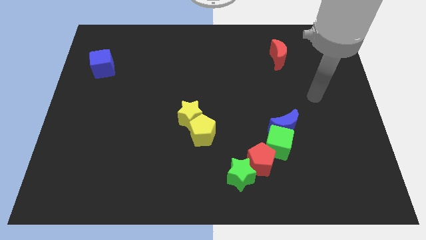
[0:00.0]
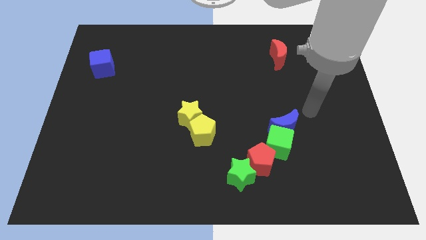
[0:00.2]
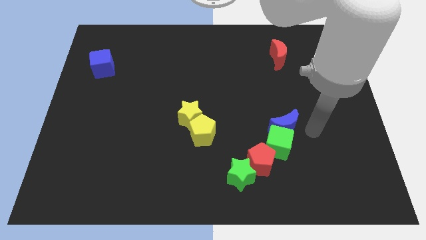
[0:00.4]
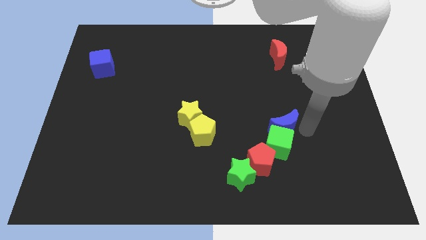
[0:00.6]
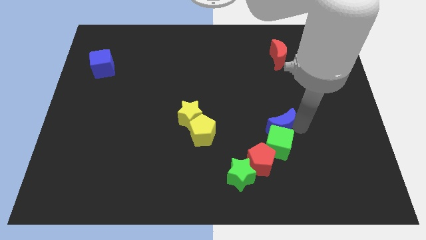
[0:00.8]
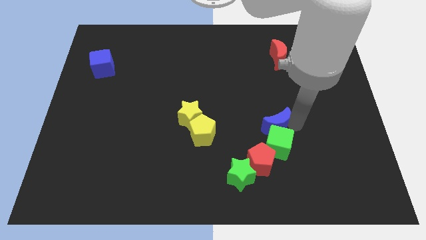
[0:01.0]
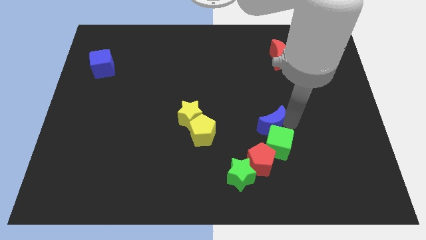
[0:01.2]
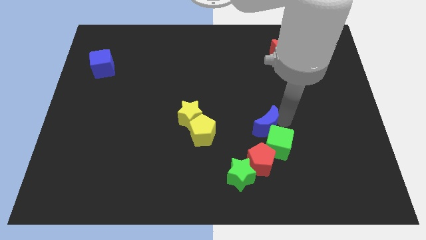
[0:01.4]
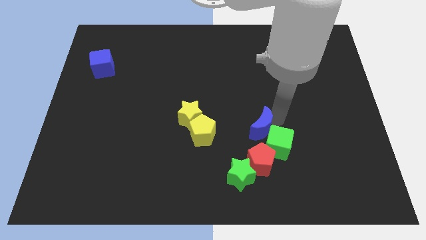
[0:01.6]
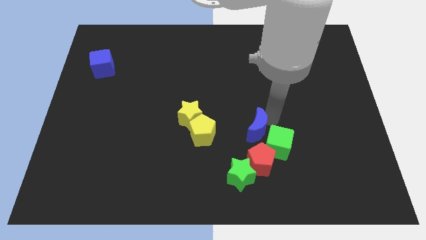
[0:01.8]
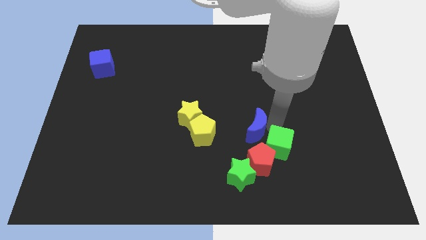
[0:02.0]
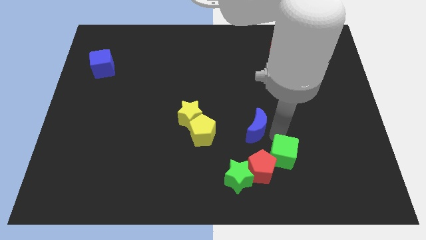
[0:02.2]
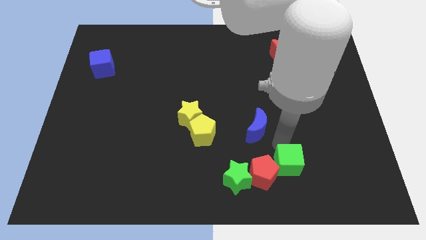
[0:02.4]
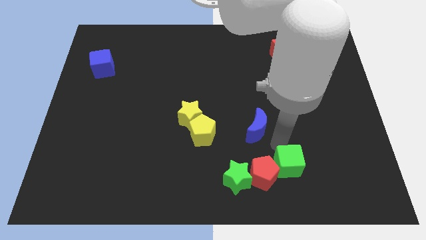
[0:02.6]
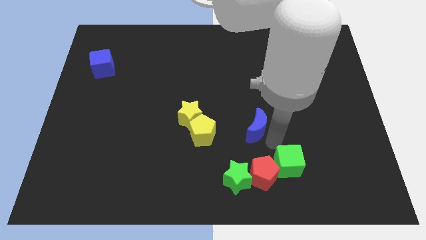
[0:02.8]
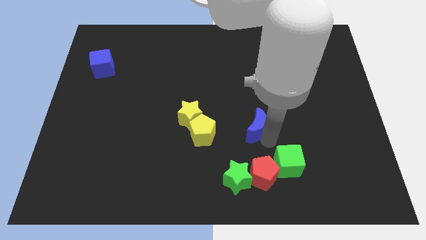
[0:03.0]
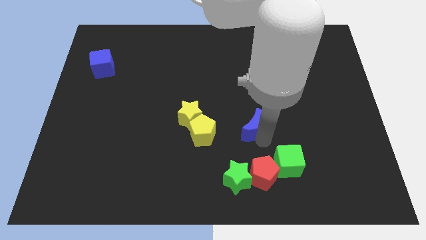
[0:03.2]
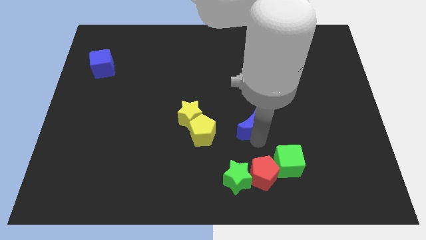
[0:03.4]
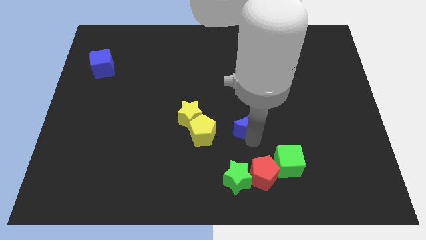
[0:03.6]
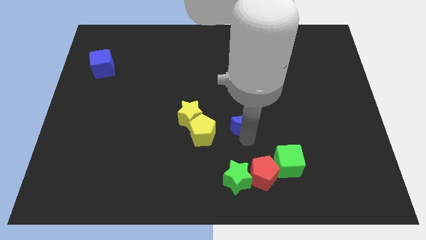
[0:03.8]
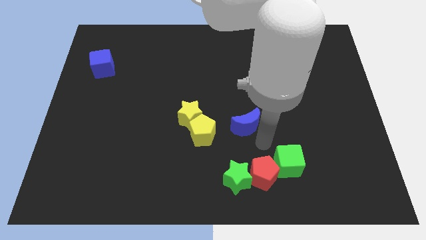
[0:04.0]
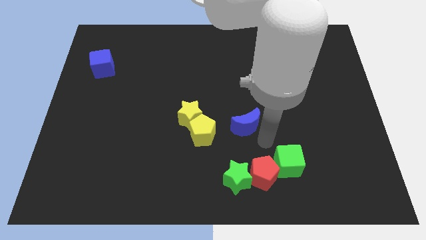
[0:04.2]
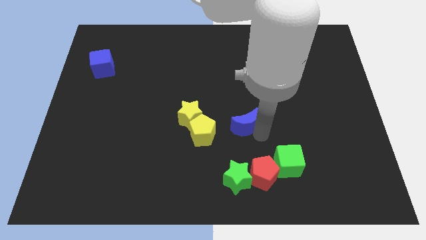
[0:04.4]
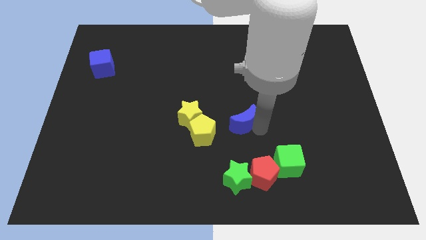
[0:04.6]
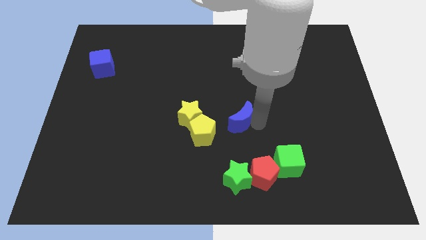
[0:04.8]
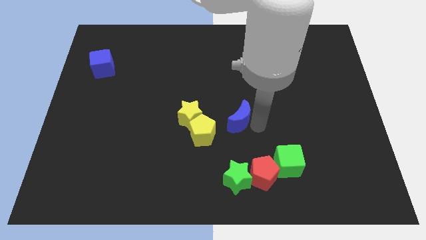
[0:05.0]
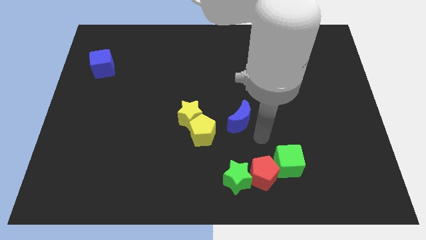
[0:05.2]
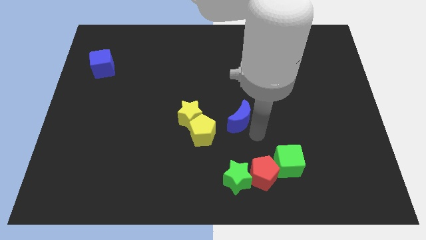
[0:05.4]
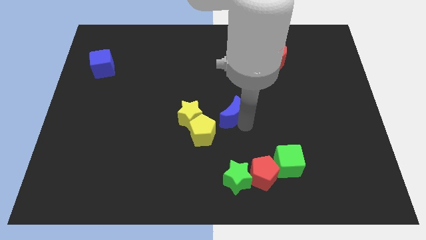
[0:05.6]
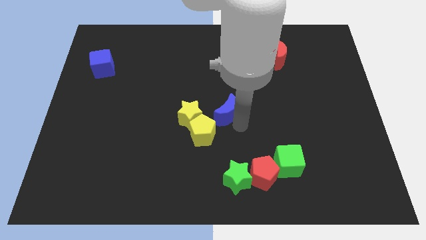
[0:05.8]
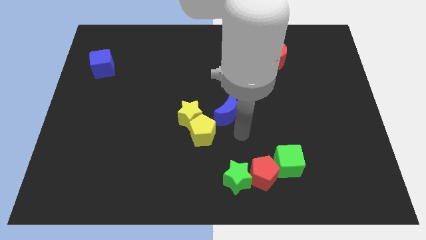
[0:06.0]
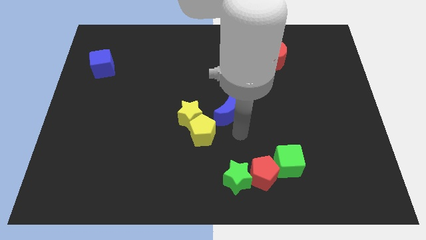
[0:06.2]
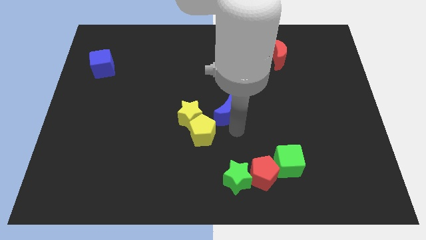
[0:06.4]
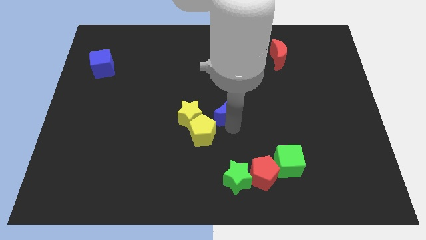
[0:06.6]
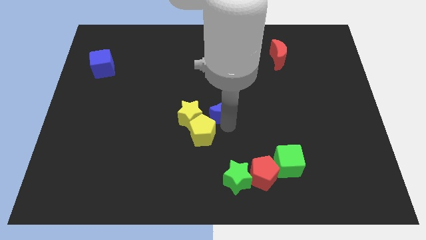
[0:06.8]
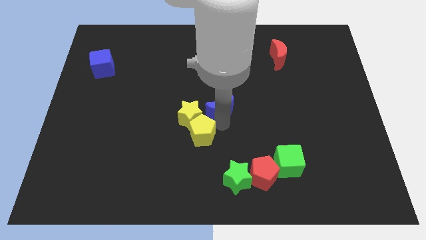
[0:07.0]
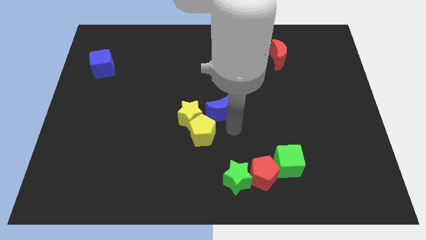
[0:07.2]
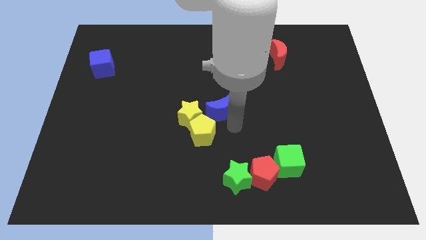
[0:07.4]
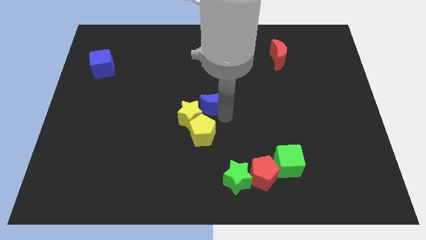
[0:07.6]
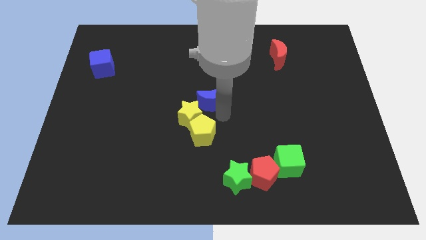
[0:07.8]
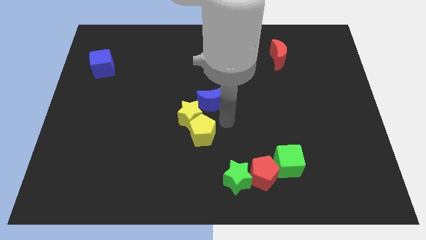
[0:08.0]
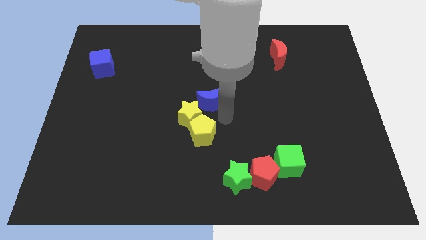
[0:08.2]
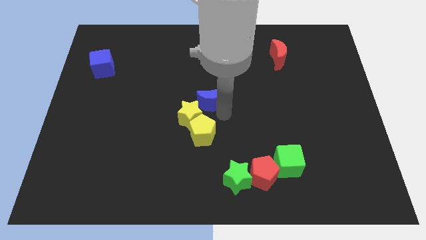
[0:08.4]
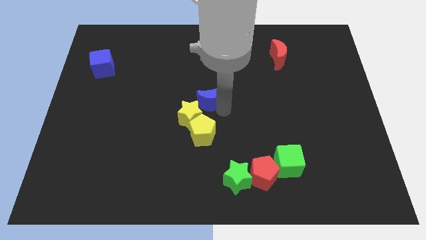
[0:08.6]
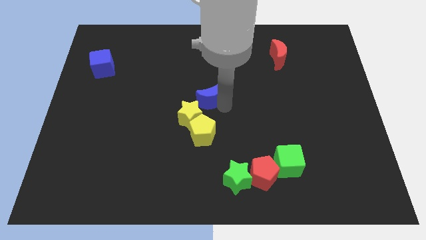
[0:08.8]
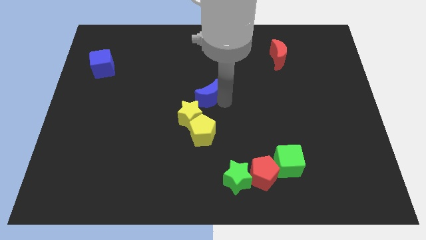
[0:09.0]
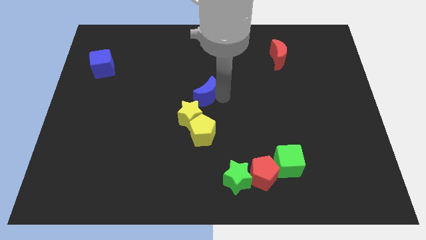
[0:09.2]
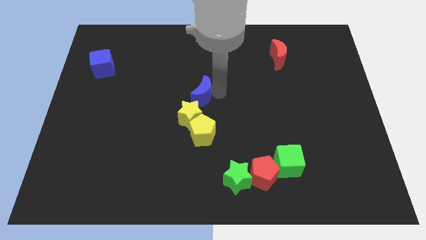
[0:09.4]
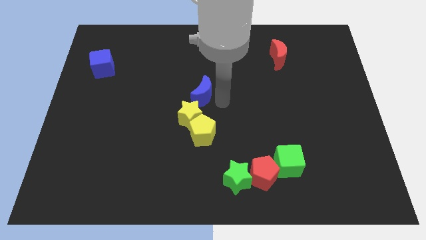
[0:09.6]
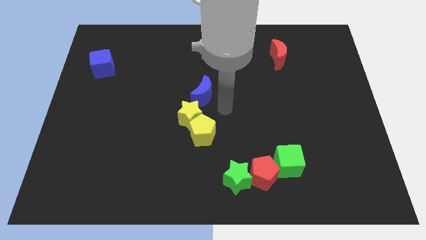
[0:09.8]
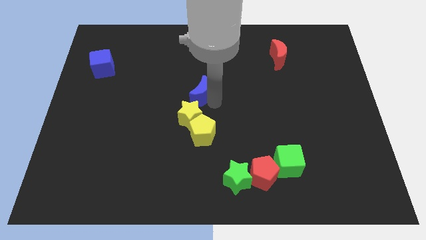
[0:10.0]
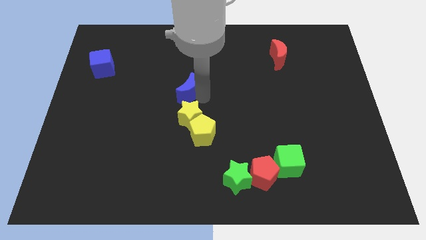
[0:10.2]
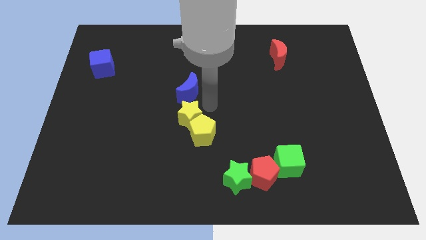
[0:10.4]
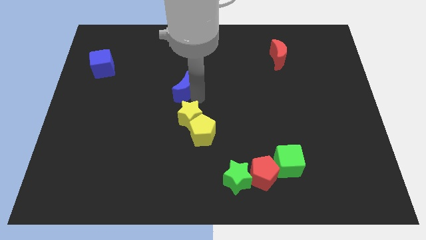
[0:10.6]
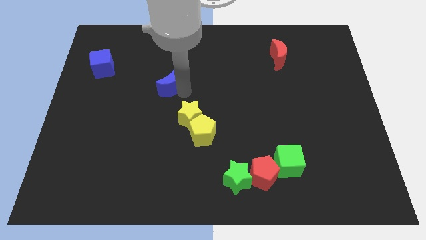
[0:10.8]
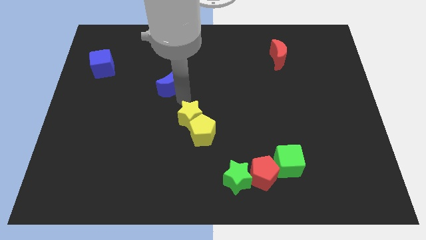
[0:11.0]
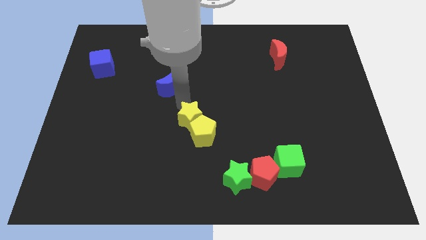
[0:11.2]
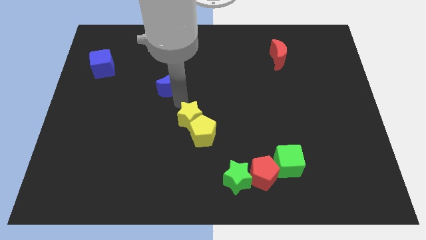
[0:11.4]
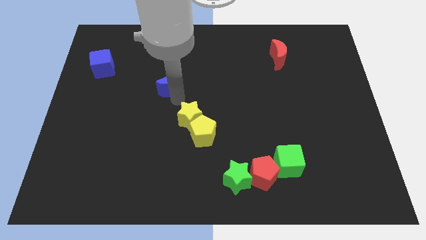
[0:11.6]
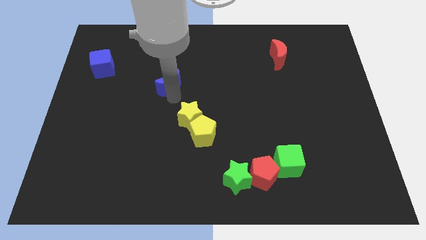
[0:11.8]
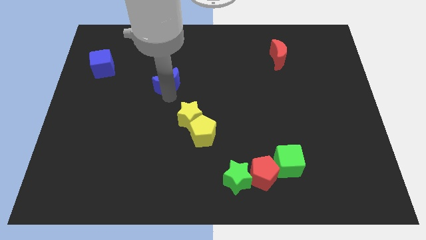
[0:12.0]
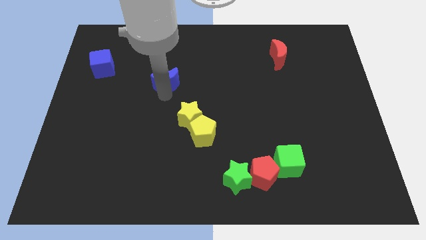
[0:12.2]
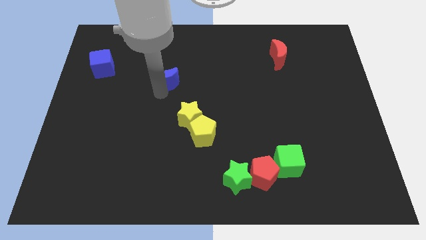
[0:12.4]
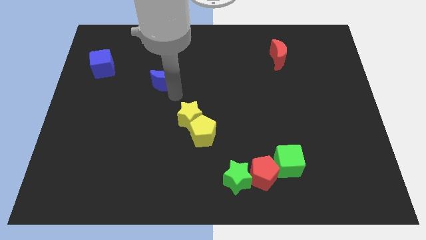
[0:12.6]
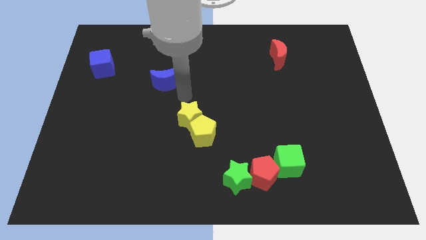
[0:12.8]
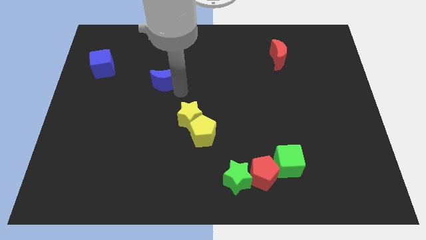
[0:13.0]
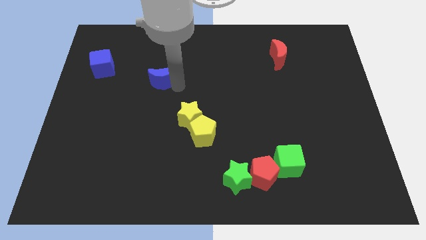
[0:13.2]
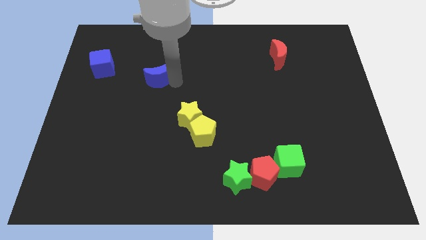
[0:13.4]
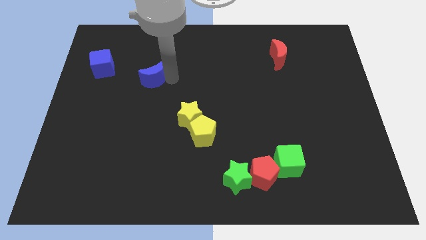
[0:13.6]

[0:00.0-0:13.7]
put the blue moon to the right side of the blue cube
